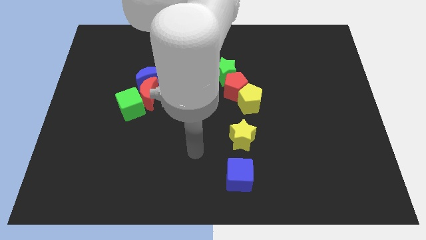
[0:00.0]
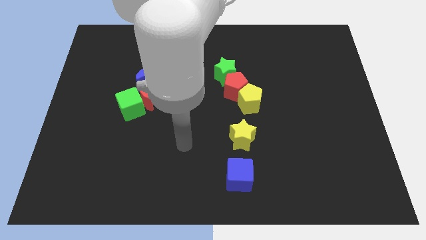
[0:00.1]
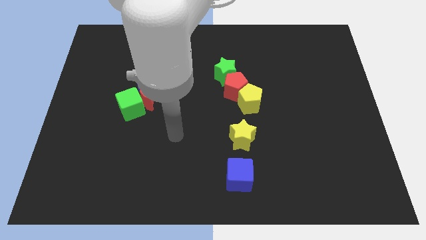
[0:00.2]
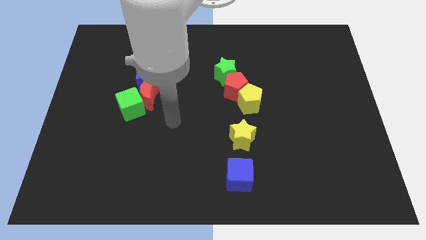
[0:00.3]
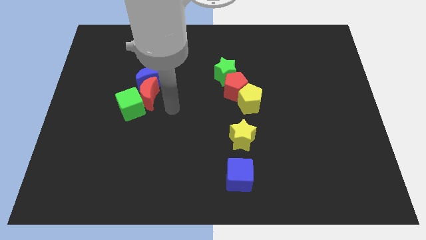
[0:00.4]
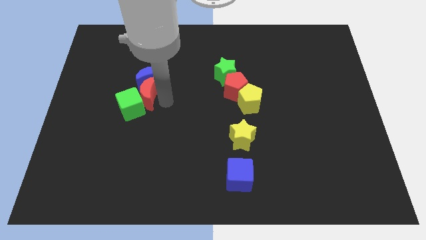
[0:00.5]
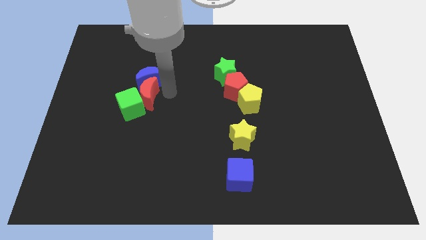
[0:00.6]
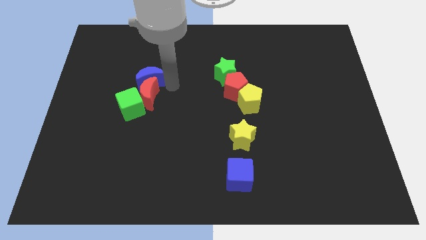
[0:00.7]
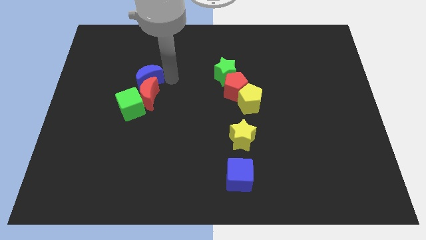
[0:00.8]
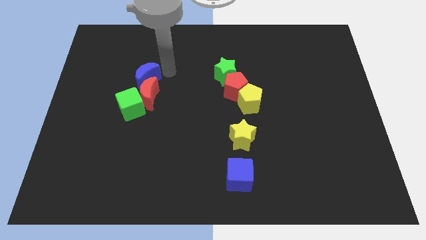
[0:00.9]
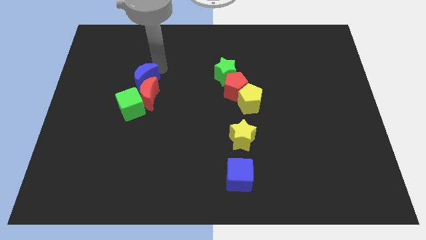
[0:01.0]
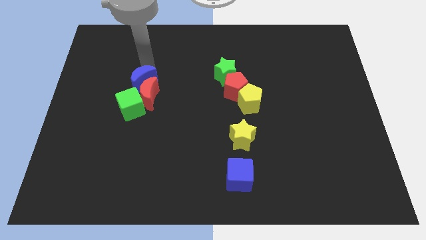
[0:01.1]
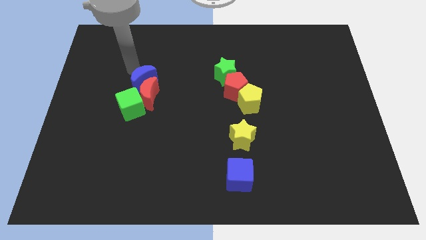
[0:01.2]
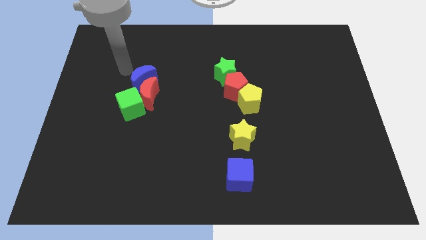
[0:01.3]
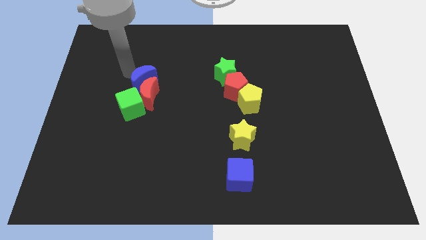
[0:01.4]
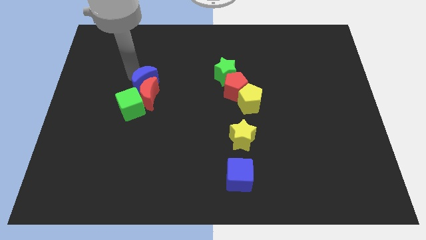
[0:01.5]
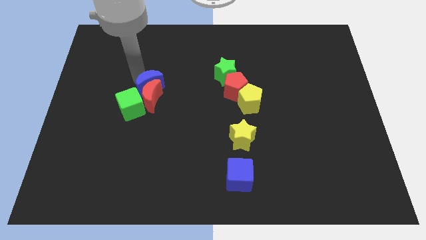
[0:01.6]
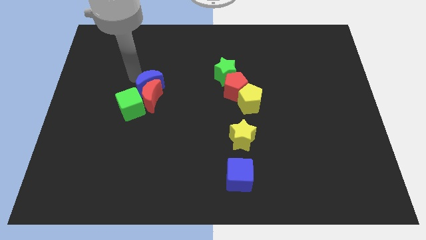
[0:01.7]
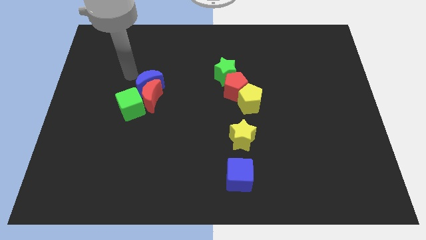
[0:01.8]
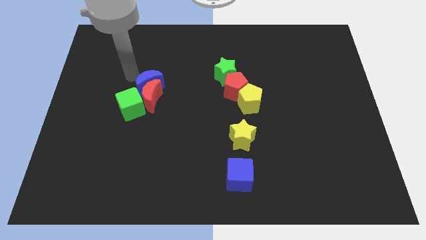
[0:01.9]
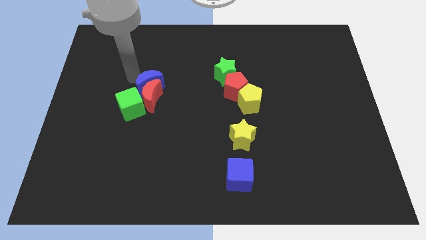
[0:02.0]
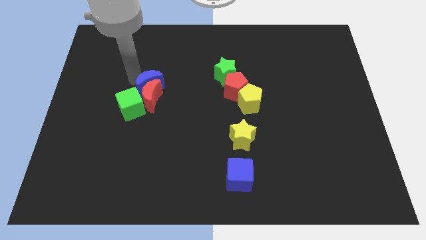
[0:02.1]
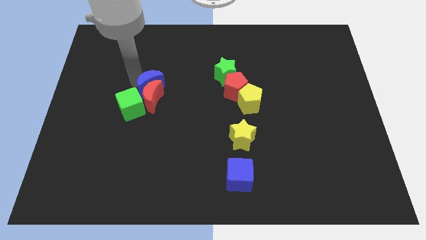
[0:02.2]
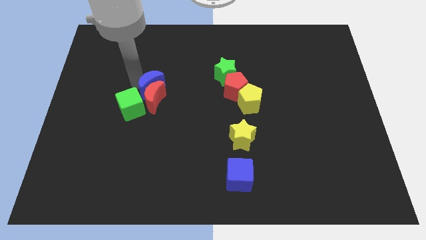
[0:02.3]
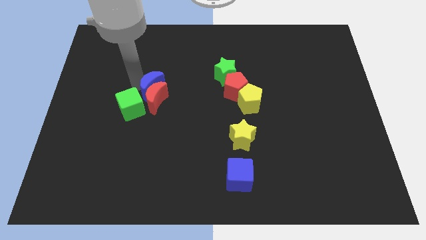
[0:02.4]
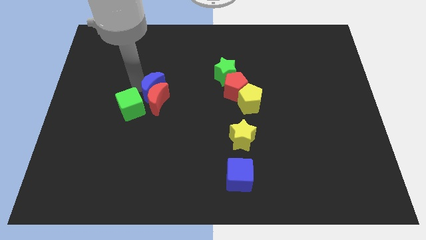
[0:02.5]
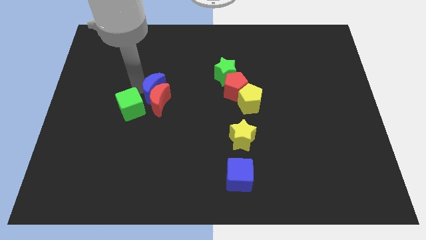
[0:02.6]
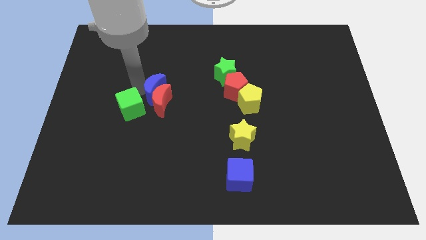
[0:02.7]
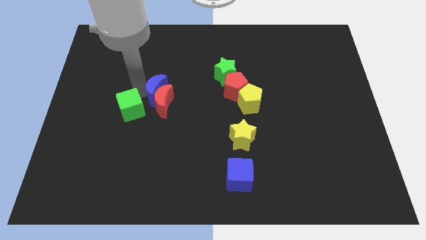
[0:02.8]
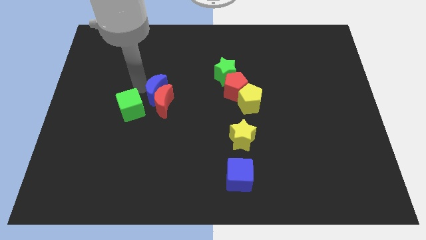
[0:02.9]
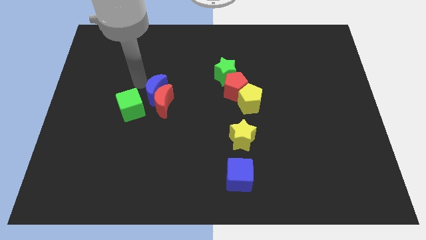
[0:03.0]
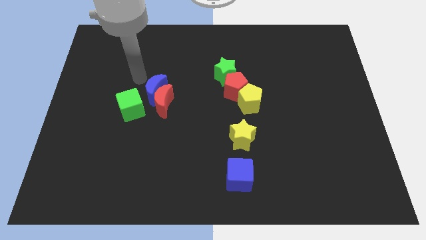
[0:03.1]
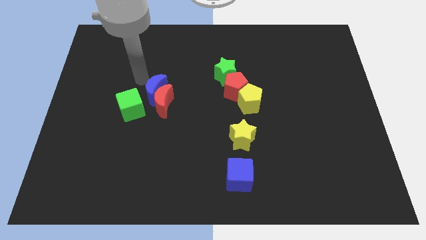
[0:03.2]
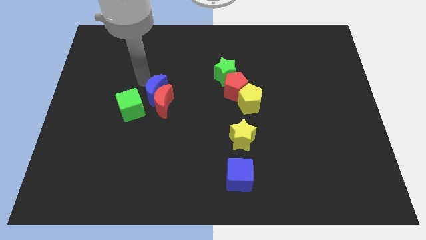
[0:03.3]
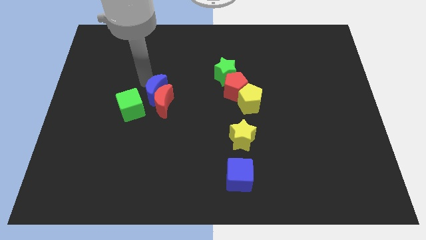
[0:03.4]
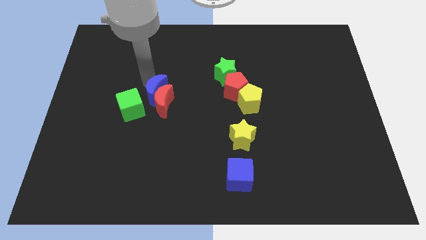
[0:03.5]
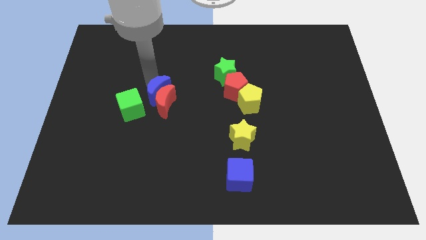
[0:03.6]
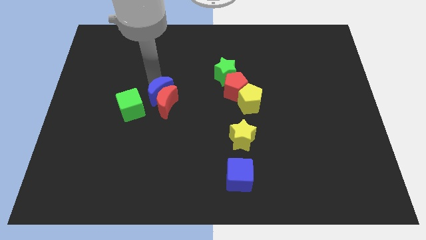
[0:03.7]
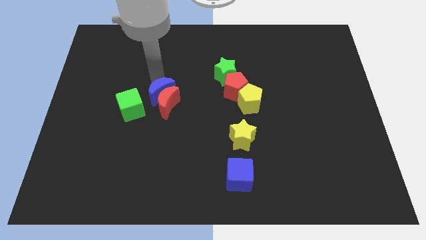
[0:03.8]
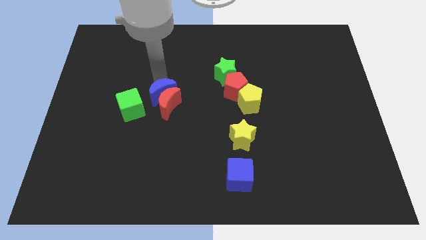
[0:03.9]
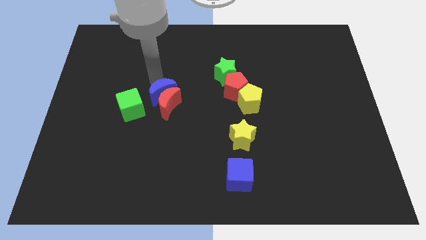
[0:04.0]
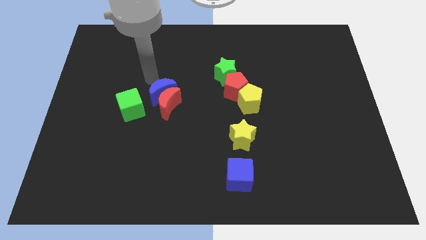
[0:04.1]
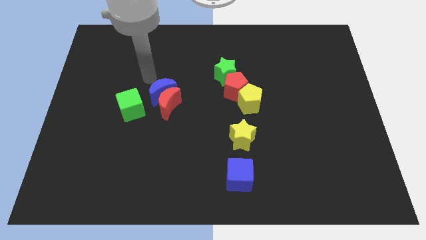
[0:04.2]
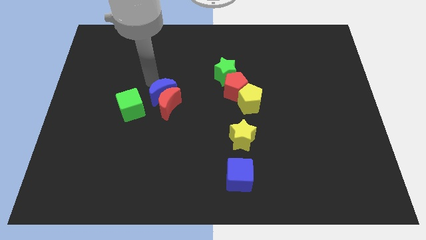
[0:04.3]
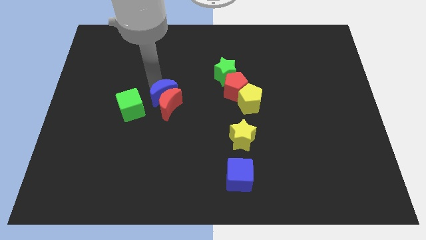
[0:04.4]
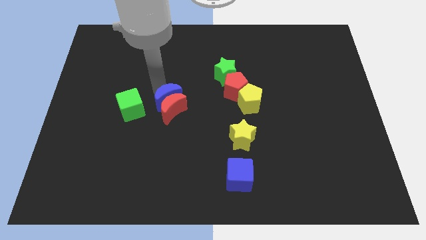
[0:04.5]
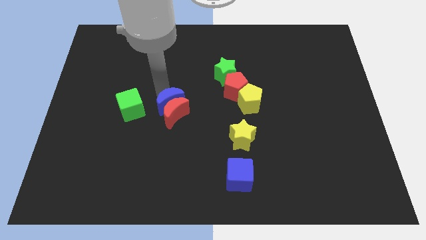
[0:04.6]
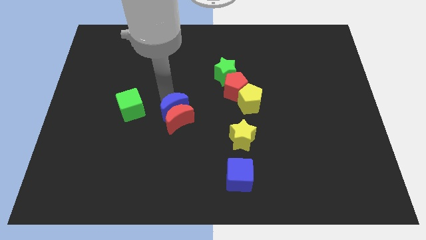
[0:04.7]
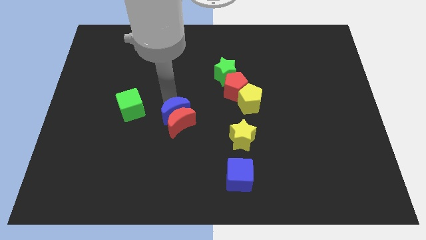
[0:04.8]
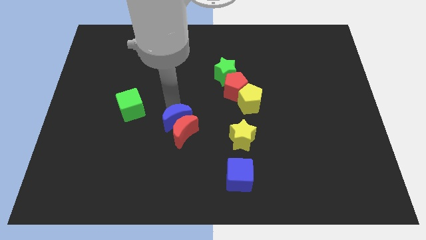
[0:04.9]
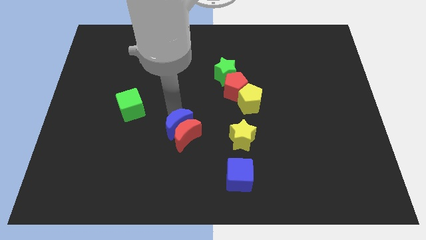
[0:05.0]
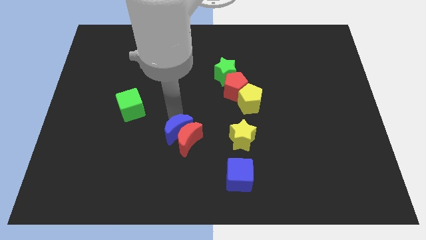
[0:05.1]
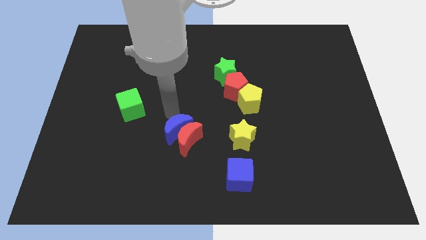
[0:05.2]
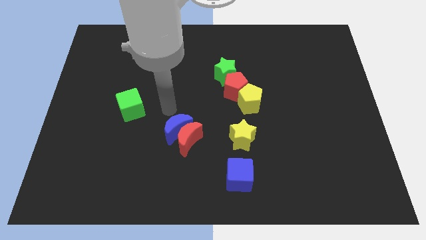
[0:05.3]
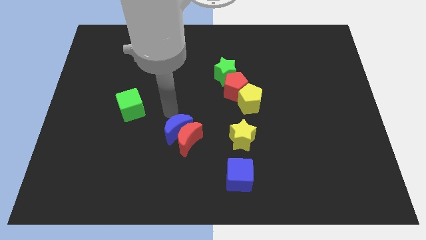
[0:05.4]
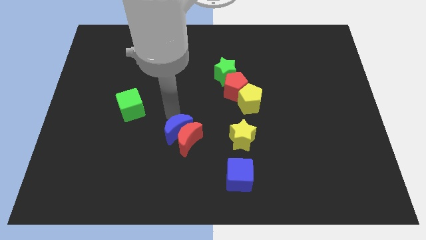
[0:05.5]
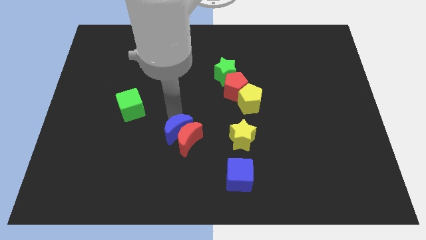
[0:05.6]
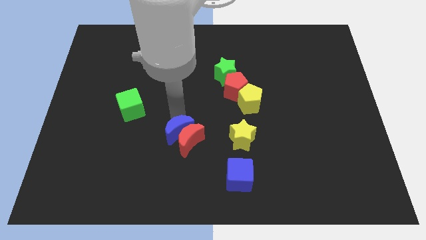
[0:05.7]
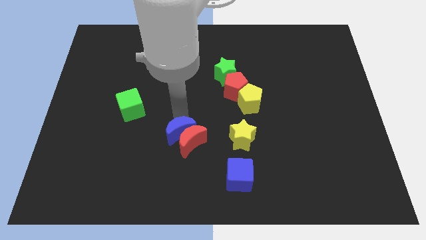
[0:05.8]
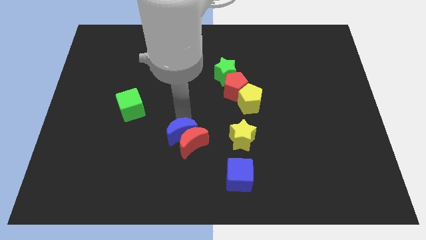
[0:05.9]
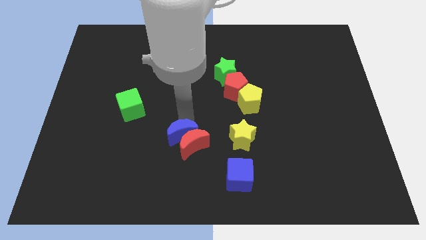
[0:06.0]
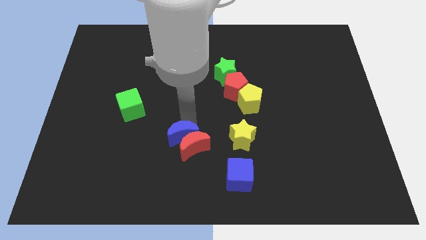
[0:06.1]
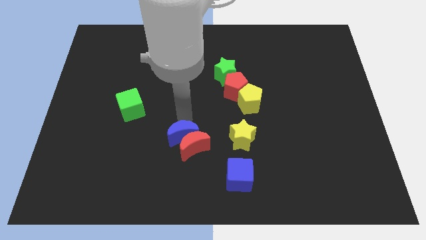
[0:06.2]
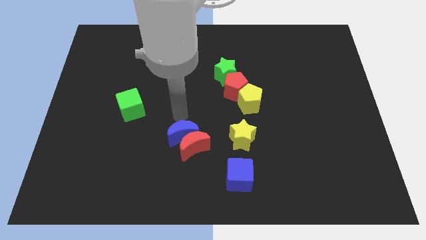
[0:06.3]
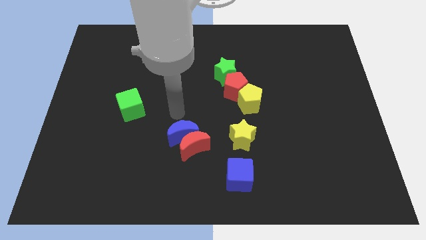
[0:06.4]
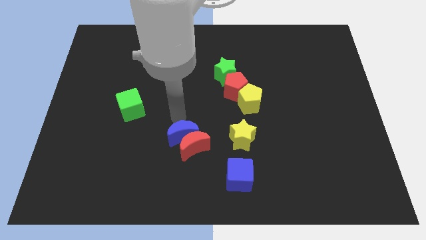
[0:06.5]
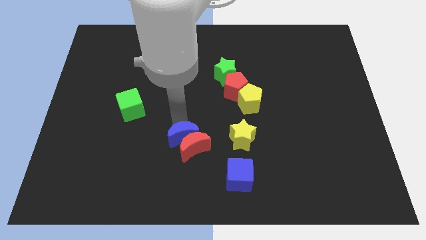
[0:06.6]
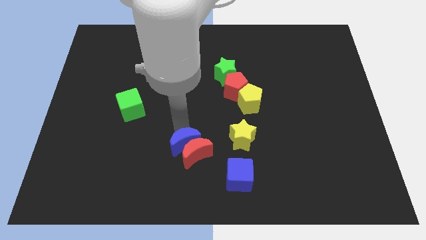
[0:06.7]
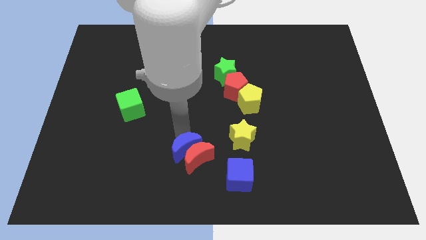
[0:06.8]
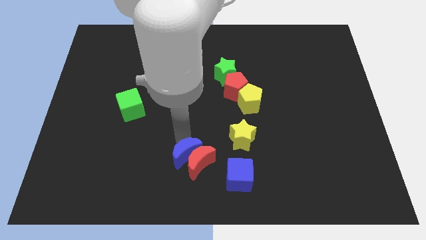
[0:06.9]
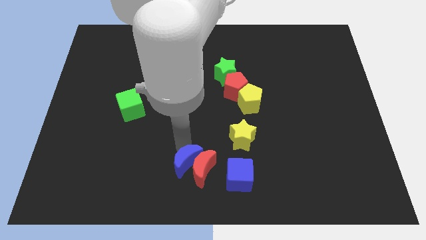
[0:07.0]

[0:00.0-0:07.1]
slide the blue moon to the bottom side

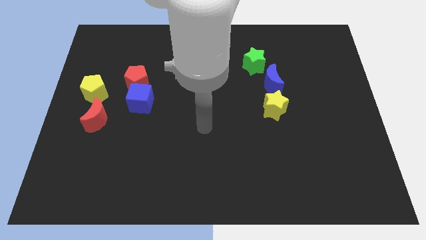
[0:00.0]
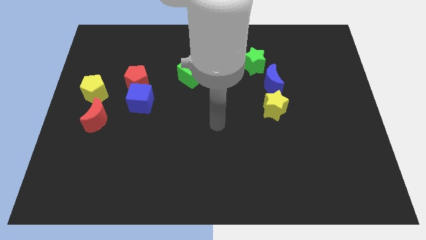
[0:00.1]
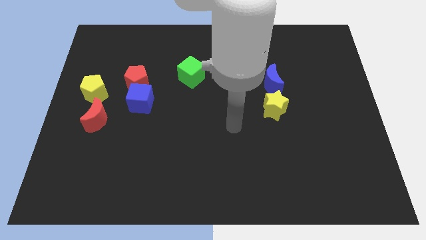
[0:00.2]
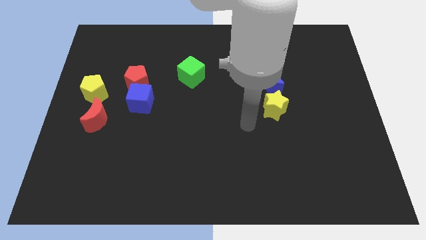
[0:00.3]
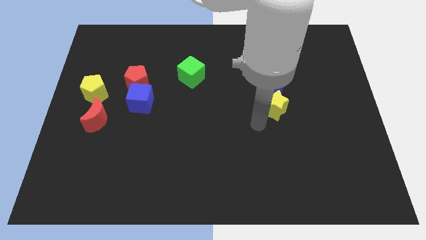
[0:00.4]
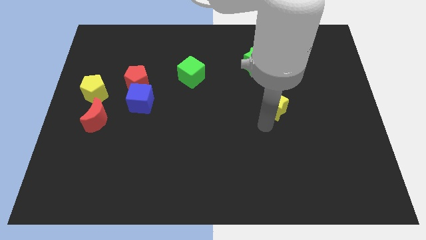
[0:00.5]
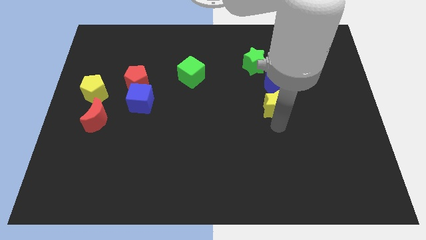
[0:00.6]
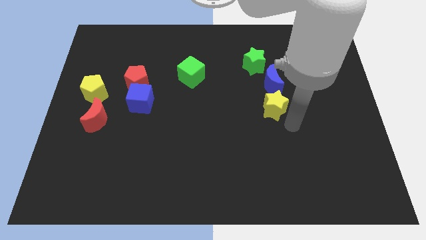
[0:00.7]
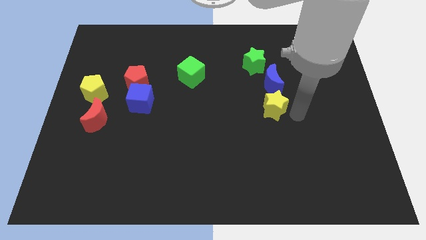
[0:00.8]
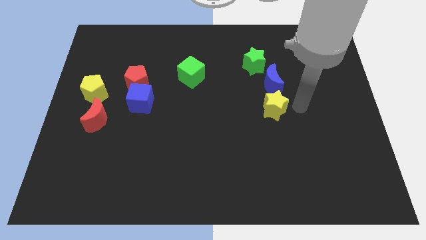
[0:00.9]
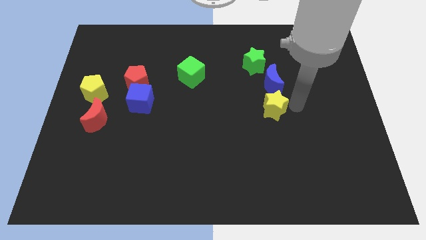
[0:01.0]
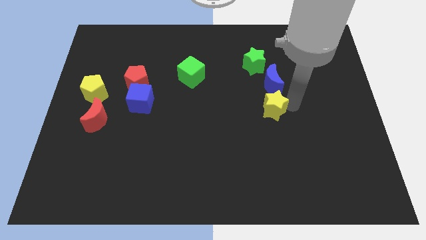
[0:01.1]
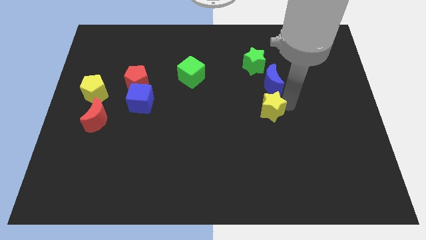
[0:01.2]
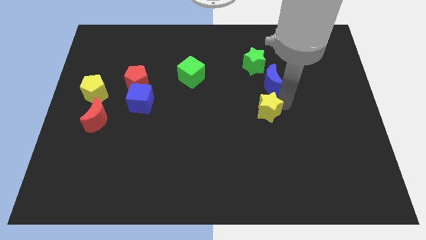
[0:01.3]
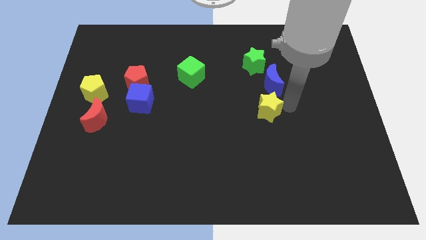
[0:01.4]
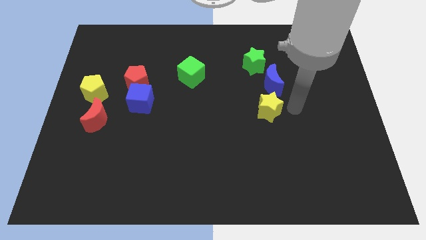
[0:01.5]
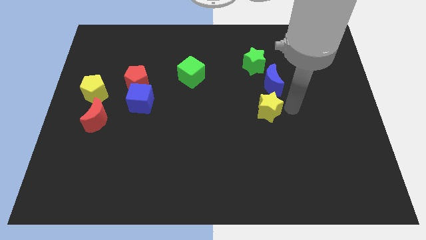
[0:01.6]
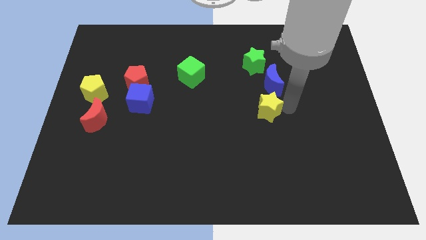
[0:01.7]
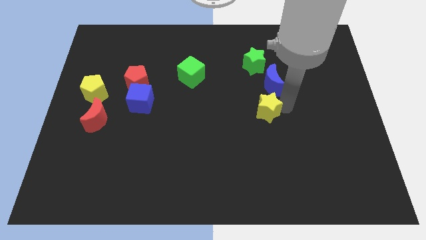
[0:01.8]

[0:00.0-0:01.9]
slide the yellow star to the center of the board
